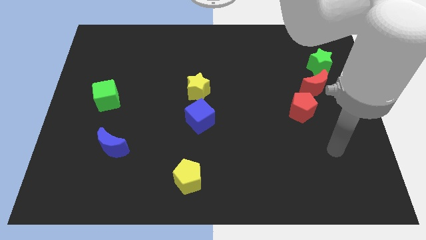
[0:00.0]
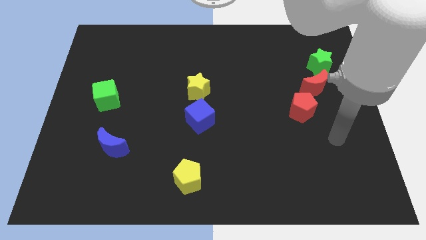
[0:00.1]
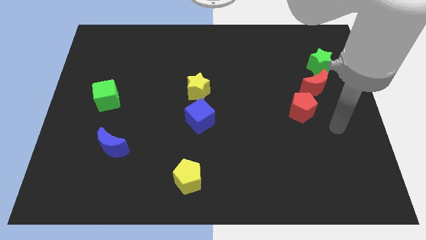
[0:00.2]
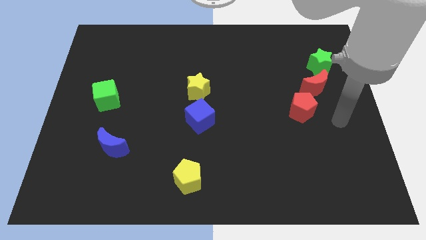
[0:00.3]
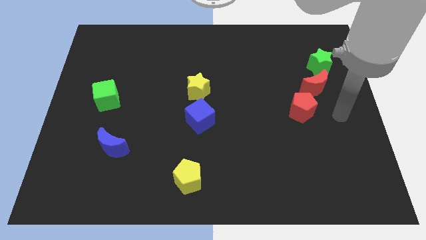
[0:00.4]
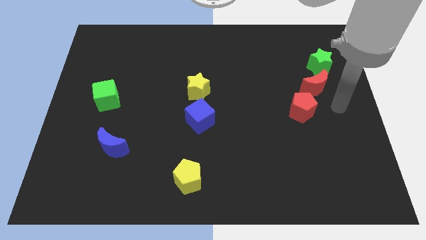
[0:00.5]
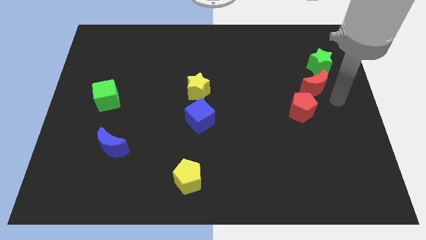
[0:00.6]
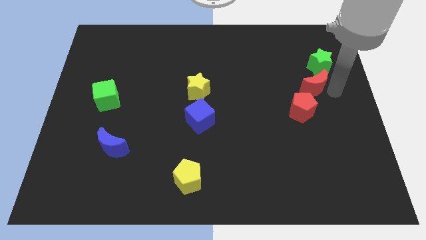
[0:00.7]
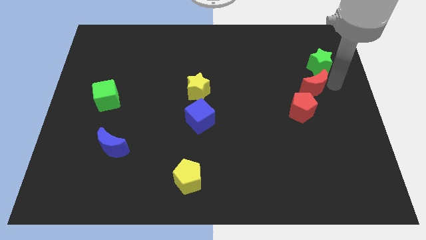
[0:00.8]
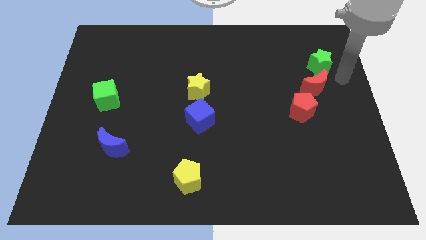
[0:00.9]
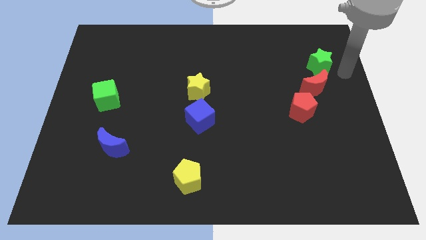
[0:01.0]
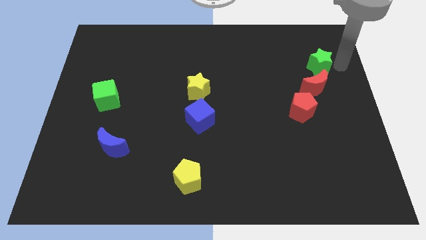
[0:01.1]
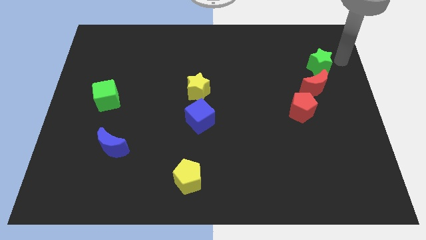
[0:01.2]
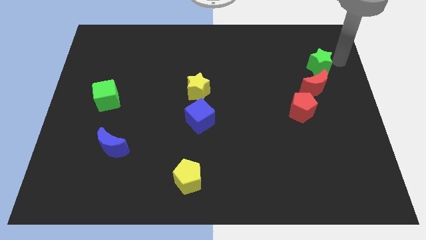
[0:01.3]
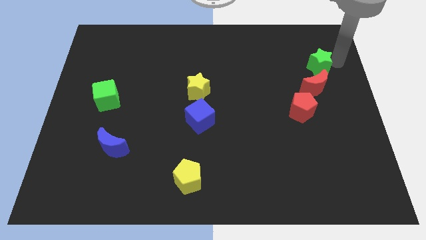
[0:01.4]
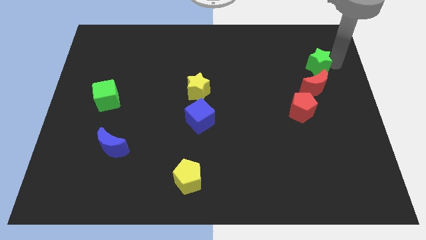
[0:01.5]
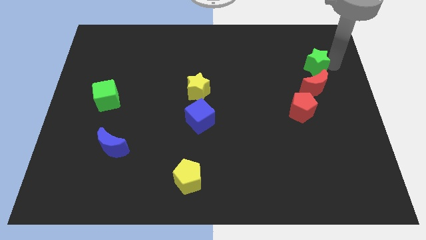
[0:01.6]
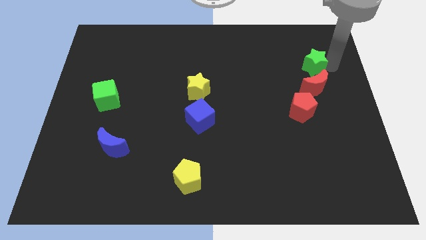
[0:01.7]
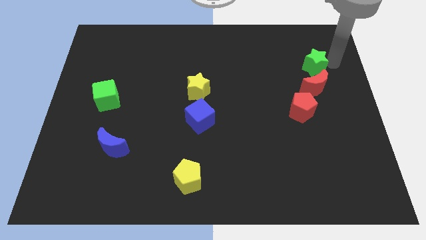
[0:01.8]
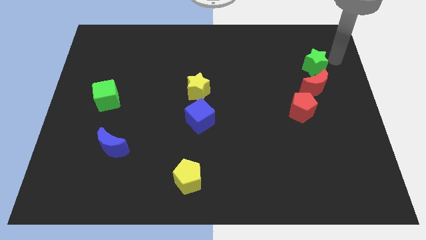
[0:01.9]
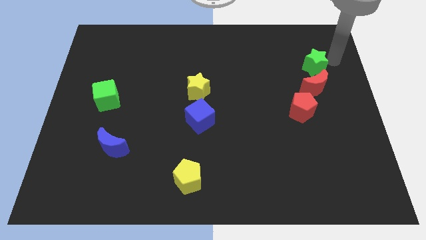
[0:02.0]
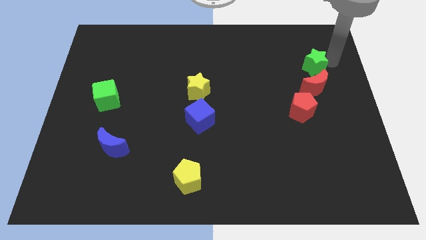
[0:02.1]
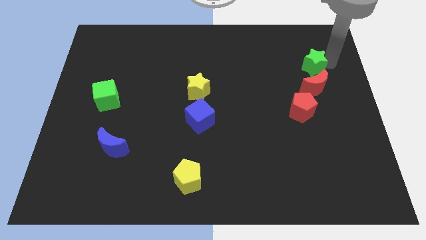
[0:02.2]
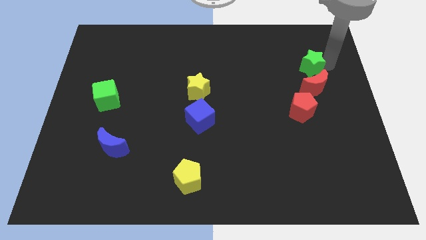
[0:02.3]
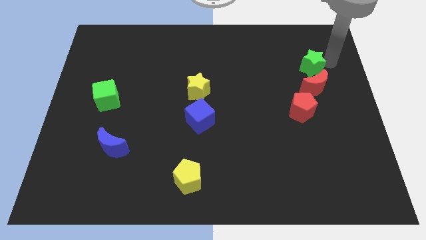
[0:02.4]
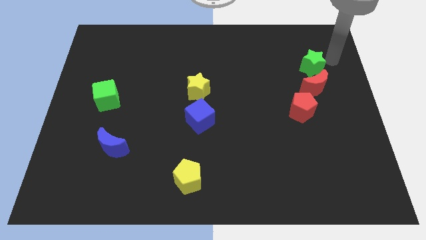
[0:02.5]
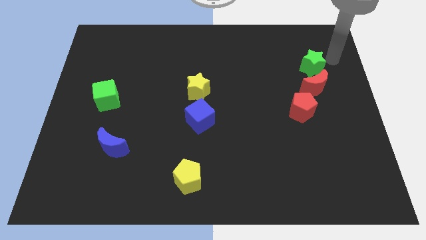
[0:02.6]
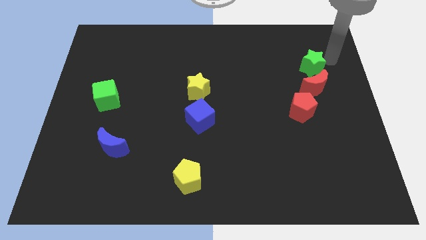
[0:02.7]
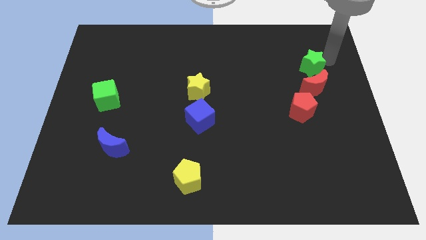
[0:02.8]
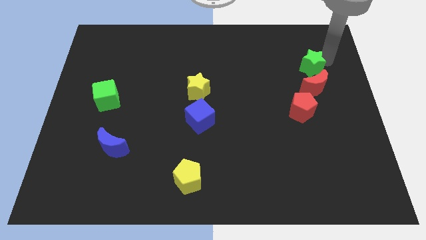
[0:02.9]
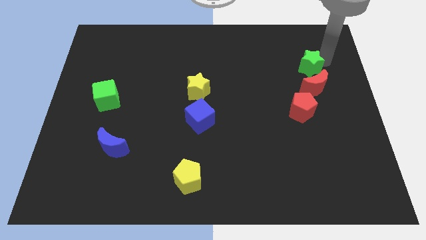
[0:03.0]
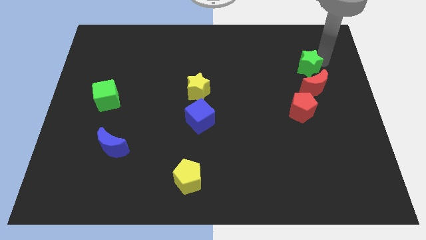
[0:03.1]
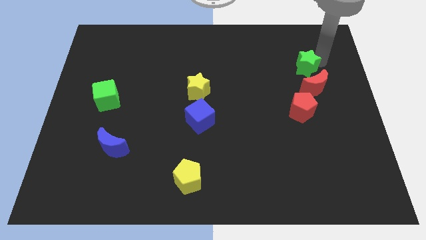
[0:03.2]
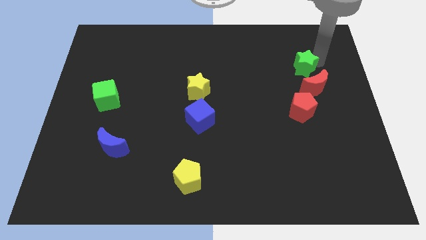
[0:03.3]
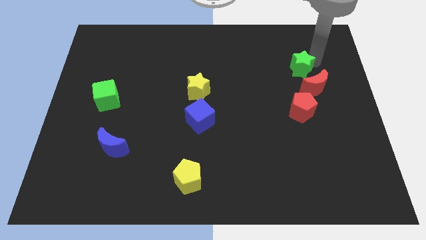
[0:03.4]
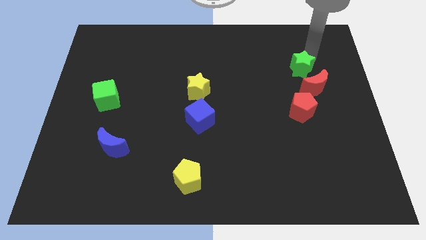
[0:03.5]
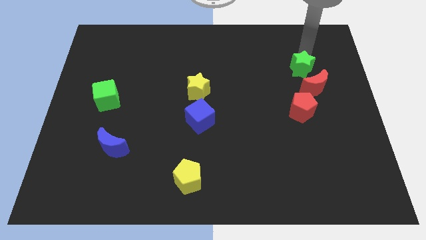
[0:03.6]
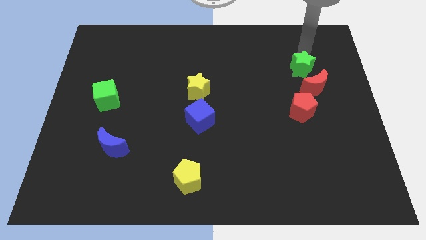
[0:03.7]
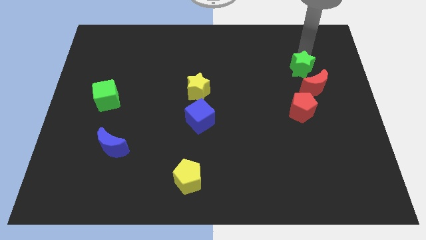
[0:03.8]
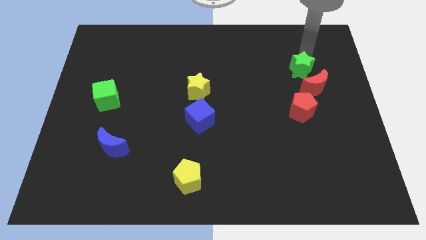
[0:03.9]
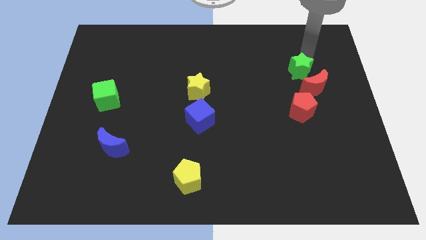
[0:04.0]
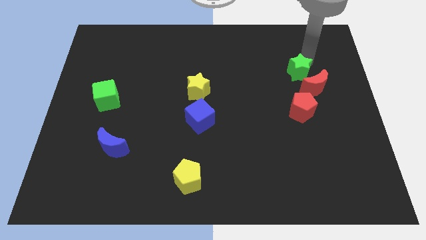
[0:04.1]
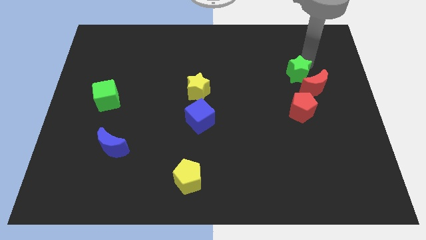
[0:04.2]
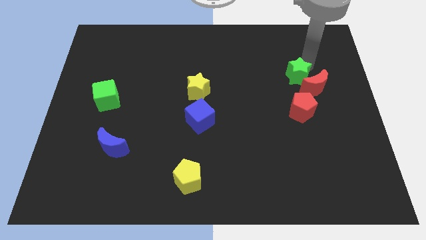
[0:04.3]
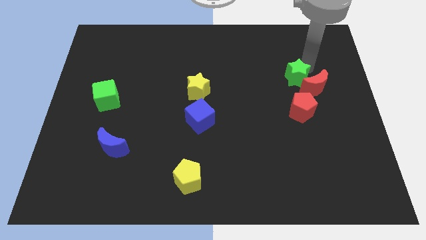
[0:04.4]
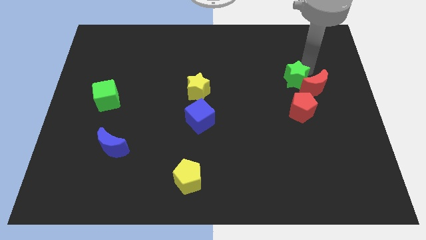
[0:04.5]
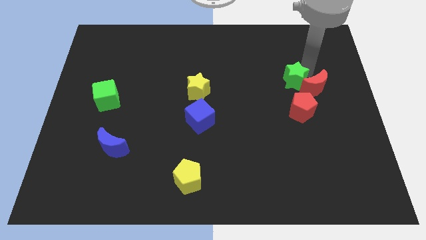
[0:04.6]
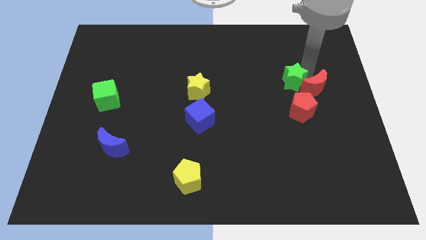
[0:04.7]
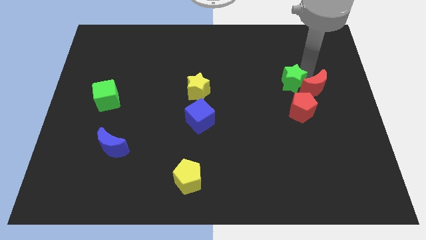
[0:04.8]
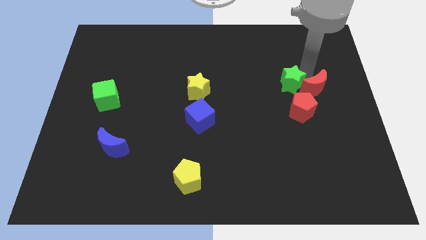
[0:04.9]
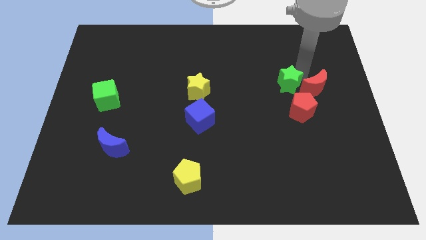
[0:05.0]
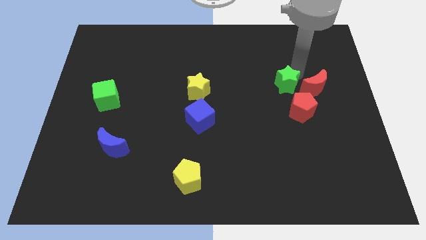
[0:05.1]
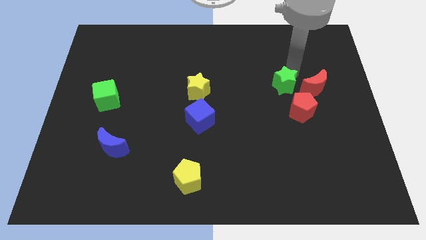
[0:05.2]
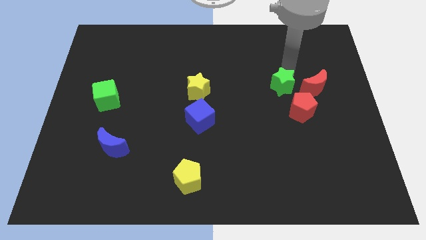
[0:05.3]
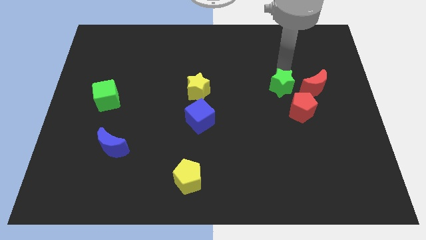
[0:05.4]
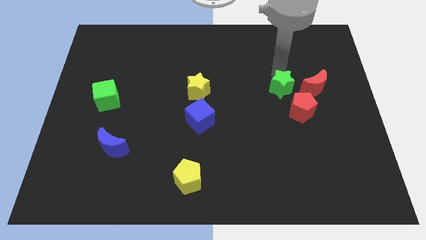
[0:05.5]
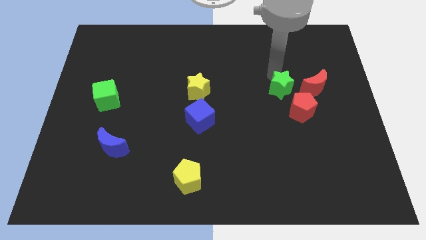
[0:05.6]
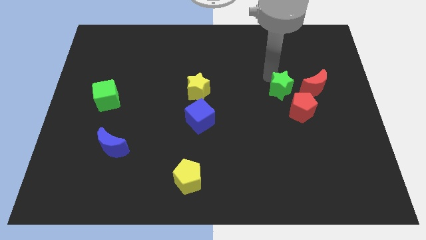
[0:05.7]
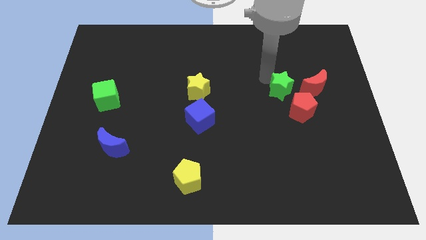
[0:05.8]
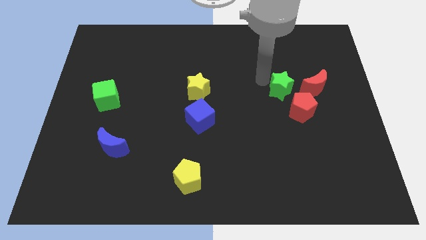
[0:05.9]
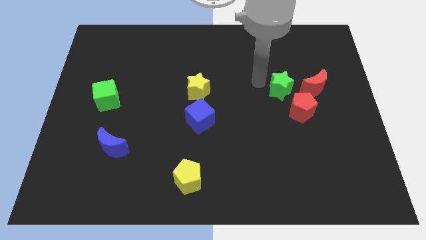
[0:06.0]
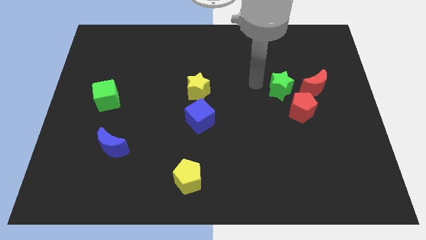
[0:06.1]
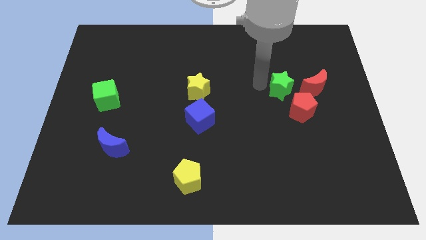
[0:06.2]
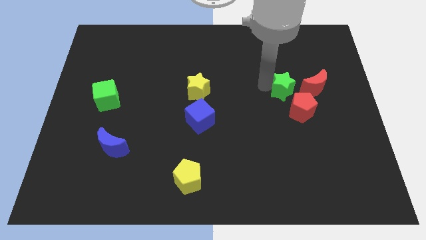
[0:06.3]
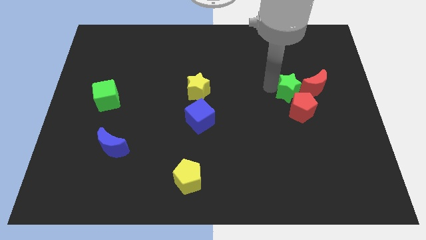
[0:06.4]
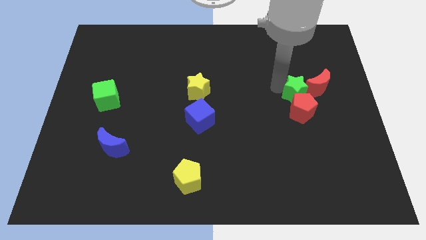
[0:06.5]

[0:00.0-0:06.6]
move the green star close to the red pentagon

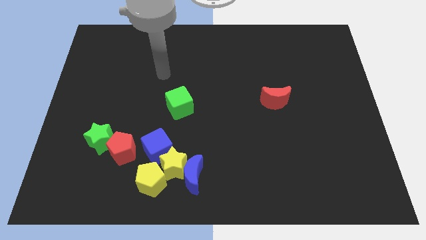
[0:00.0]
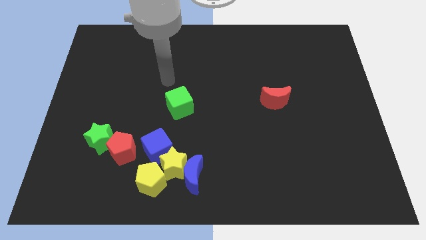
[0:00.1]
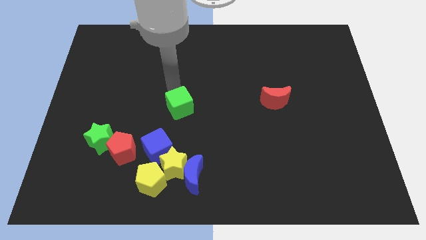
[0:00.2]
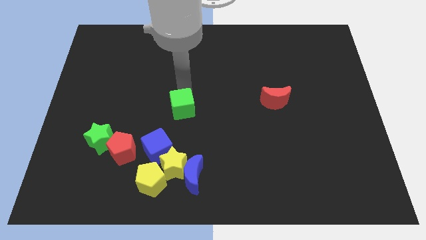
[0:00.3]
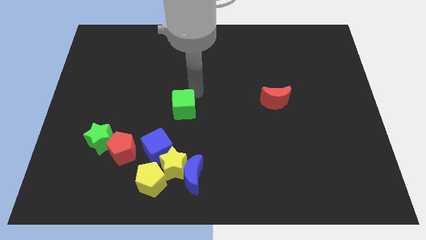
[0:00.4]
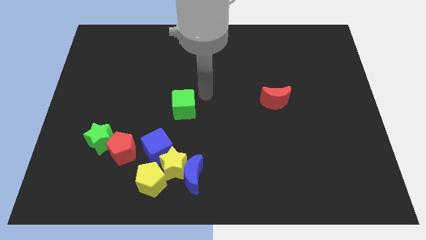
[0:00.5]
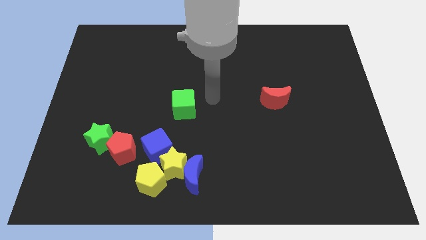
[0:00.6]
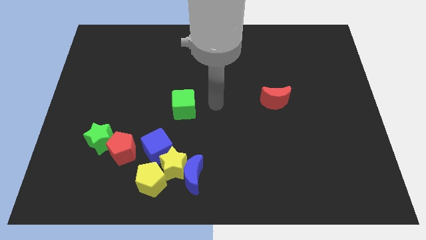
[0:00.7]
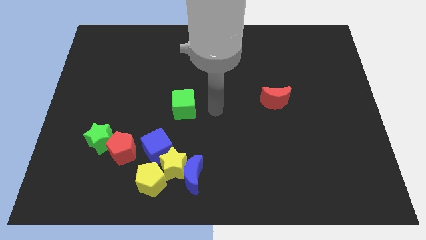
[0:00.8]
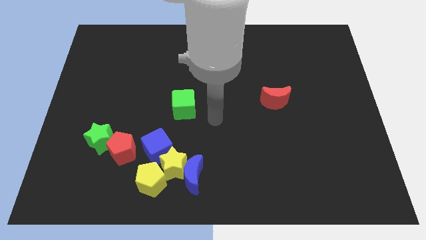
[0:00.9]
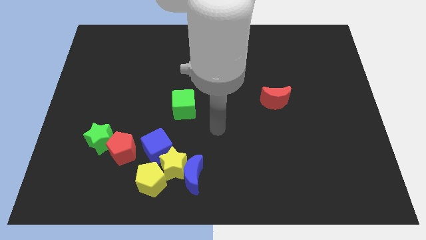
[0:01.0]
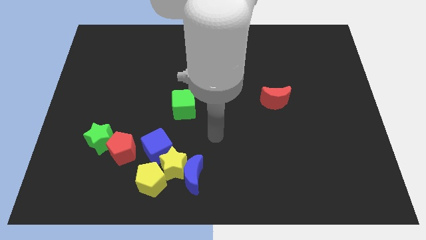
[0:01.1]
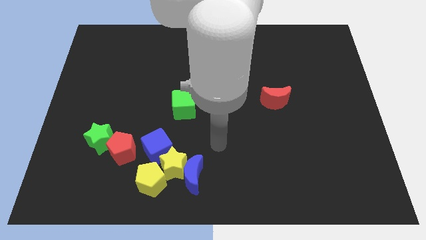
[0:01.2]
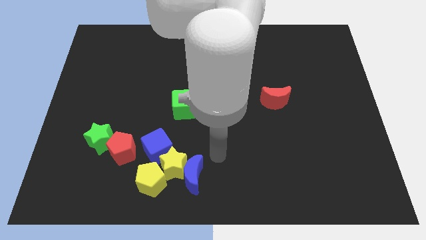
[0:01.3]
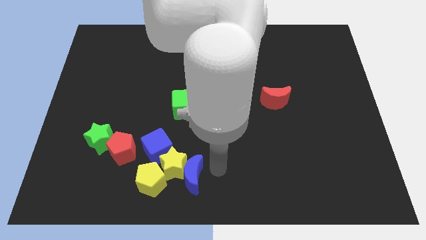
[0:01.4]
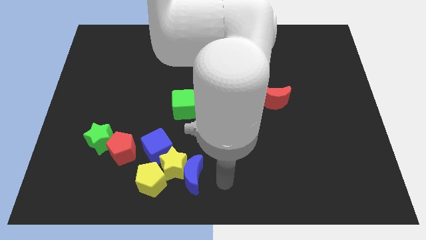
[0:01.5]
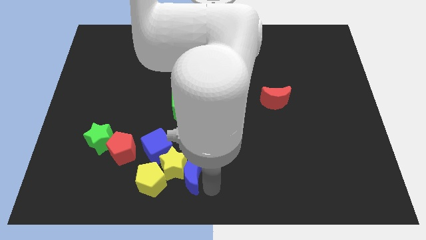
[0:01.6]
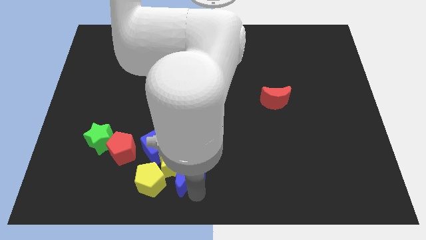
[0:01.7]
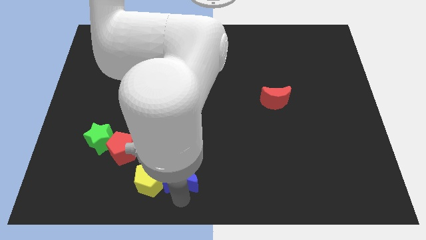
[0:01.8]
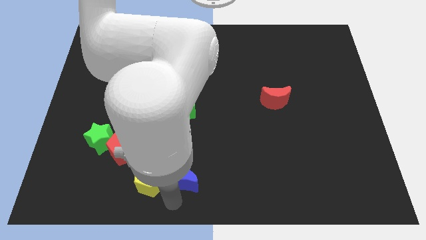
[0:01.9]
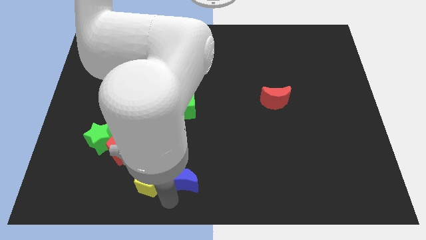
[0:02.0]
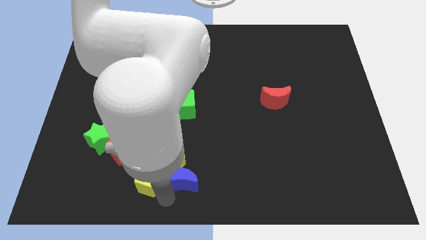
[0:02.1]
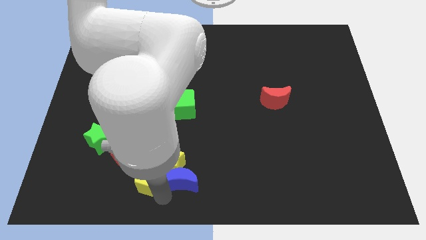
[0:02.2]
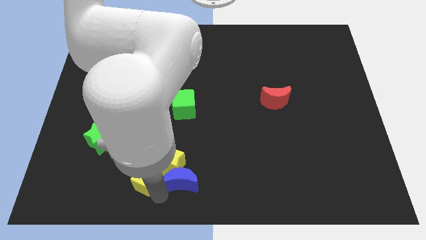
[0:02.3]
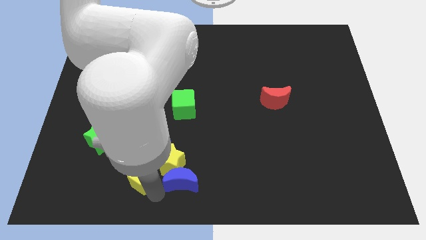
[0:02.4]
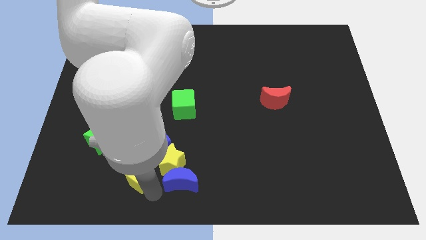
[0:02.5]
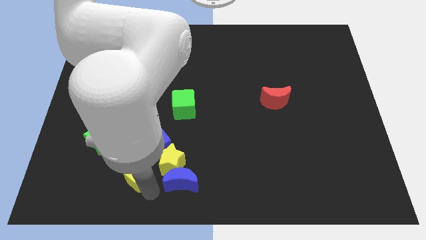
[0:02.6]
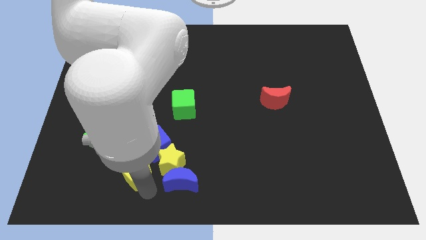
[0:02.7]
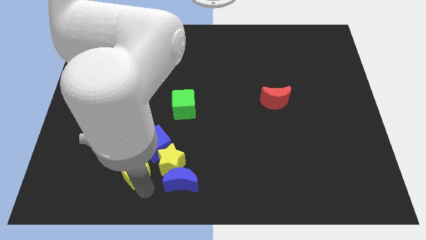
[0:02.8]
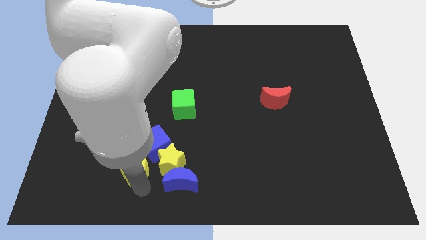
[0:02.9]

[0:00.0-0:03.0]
slide the yellow pentagon next to the red pentagon
